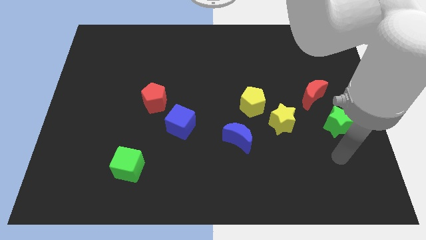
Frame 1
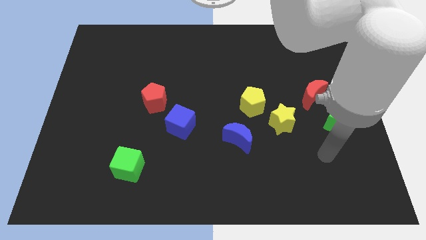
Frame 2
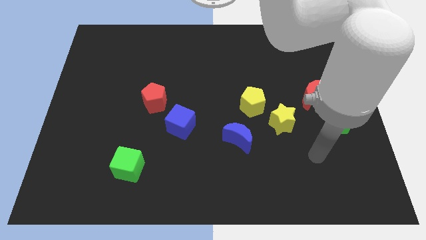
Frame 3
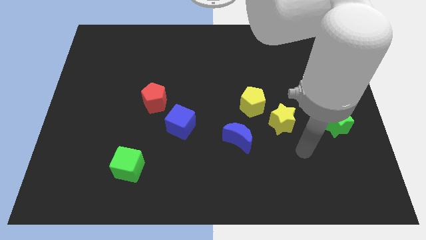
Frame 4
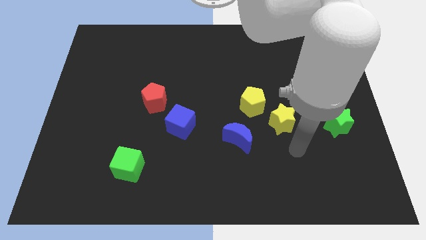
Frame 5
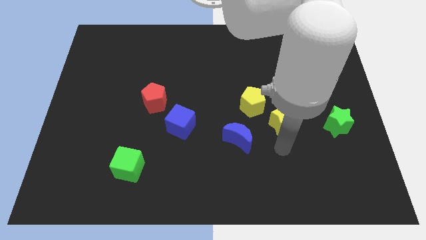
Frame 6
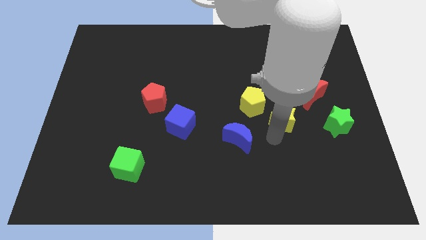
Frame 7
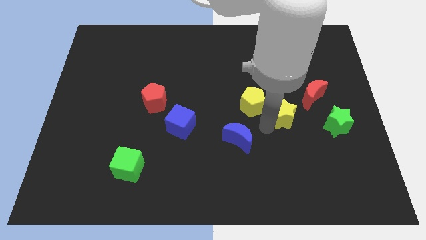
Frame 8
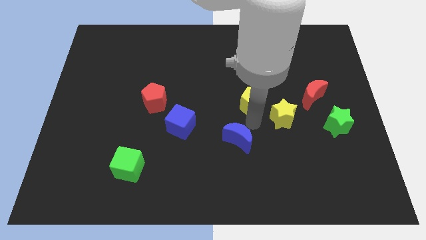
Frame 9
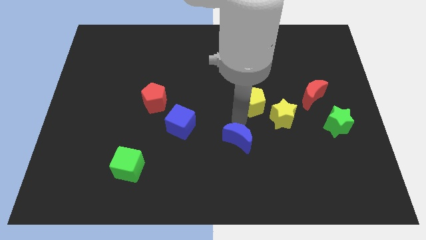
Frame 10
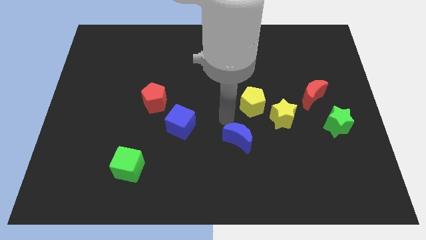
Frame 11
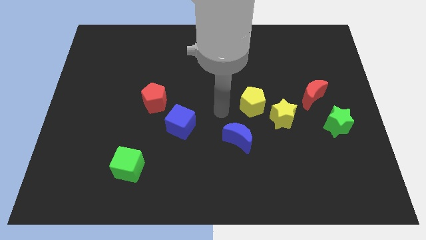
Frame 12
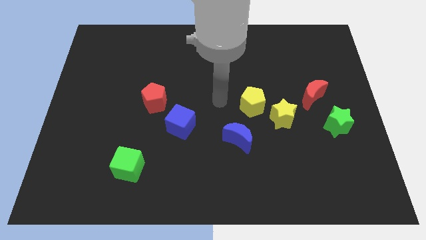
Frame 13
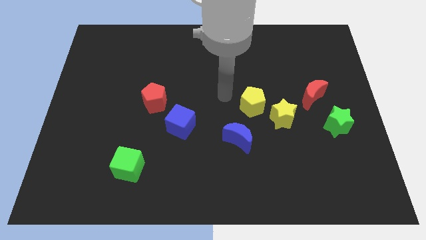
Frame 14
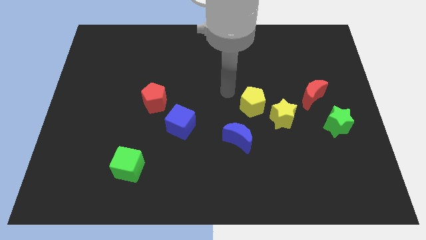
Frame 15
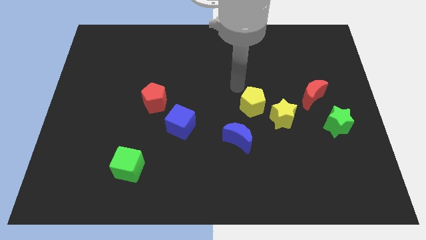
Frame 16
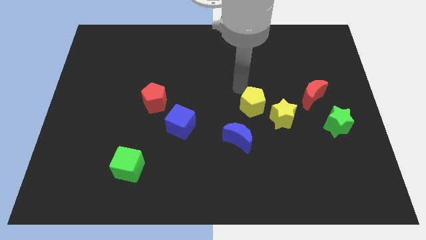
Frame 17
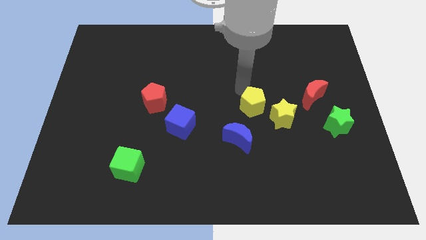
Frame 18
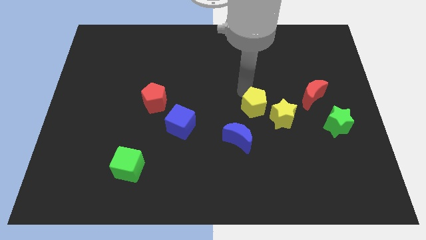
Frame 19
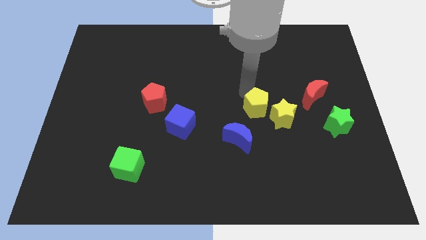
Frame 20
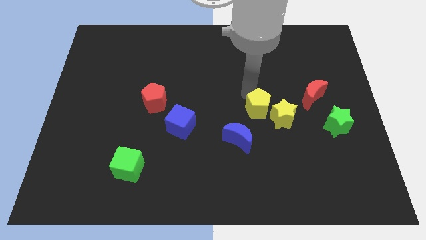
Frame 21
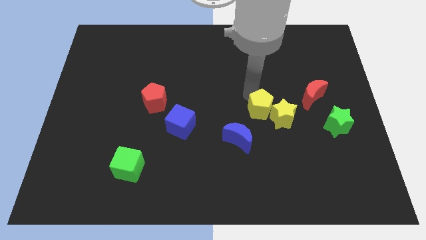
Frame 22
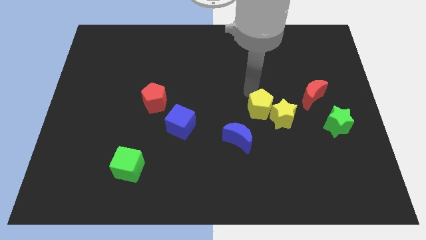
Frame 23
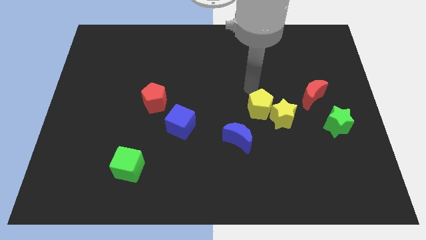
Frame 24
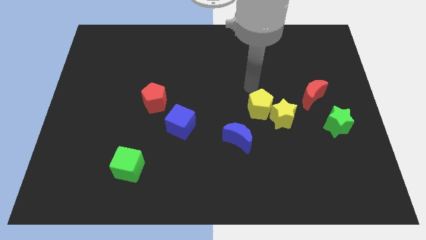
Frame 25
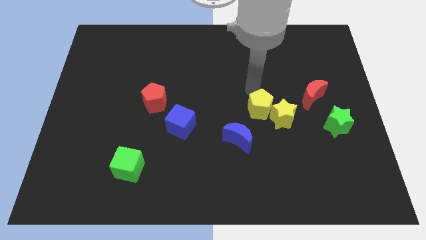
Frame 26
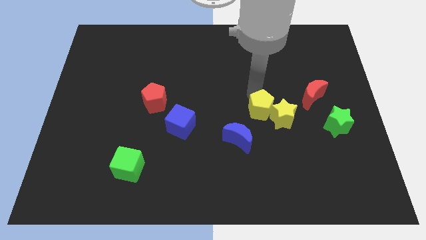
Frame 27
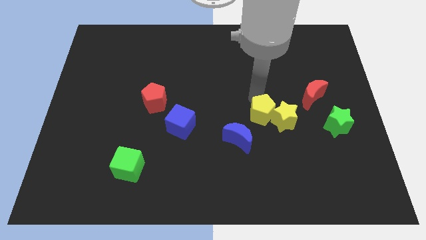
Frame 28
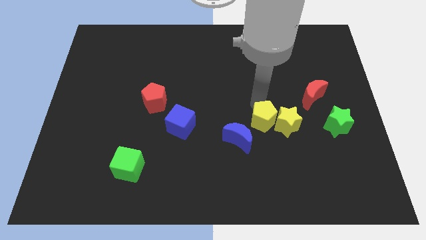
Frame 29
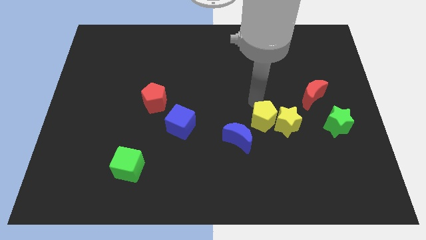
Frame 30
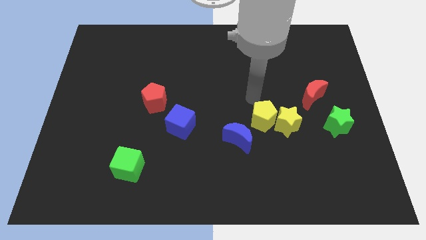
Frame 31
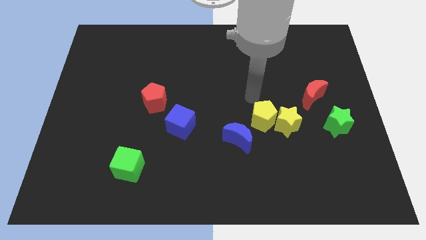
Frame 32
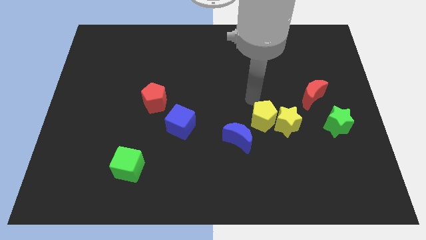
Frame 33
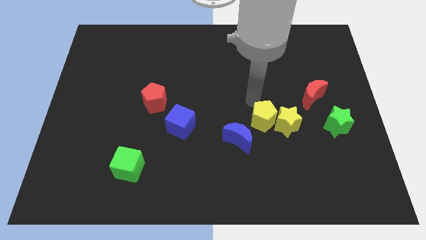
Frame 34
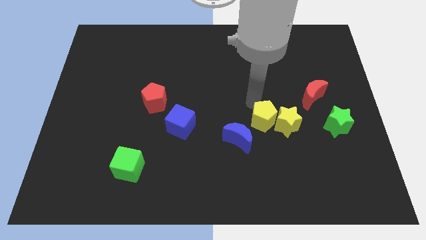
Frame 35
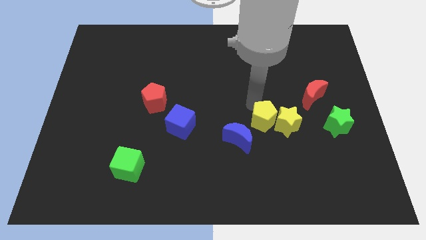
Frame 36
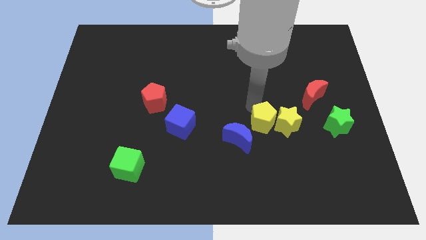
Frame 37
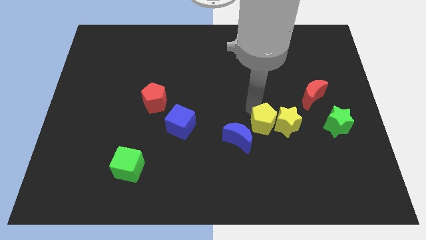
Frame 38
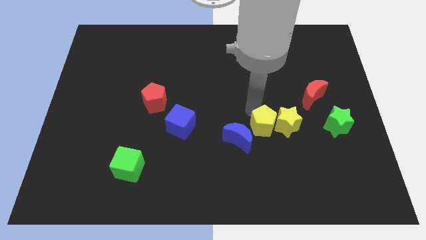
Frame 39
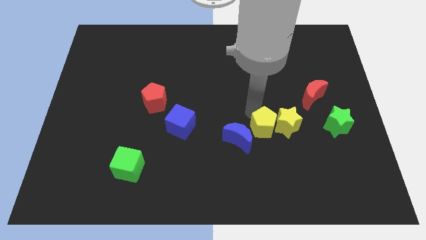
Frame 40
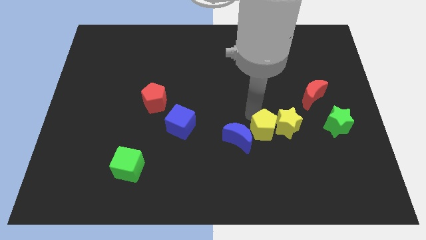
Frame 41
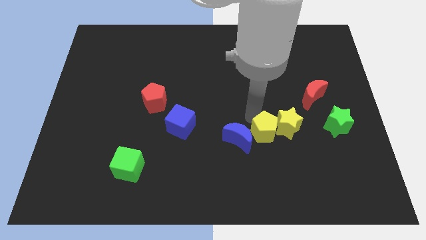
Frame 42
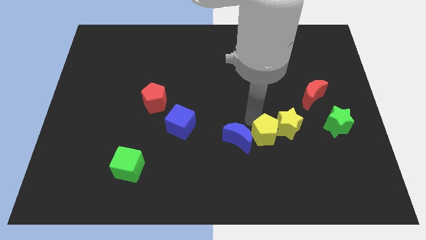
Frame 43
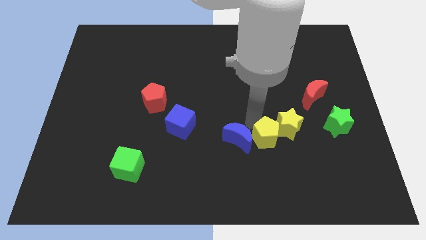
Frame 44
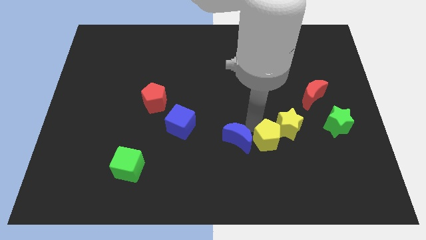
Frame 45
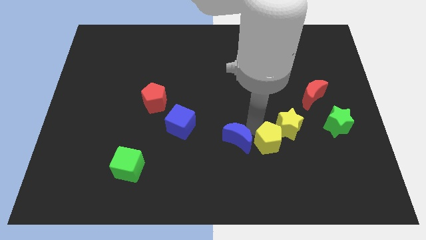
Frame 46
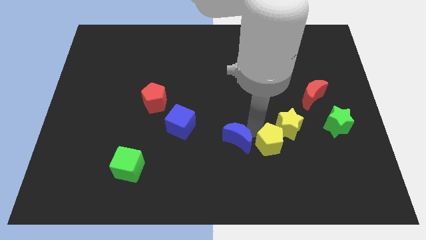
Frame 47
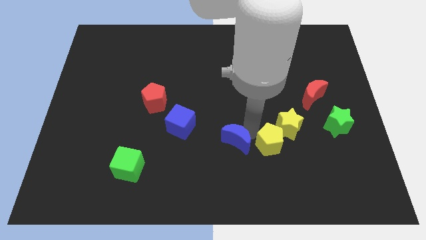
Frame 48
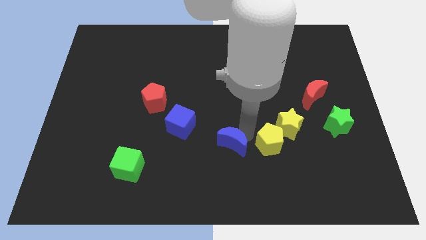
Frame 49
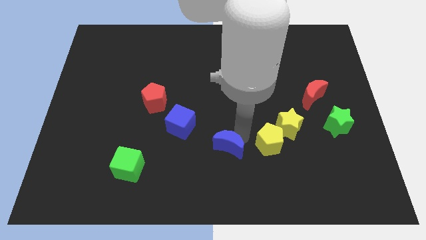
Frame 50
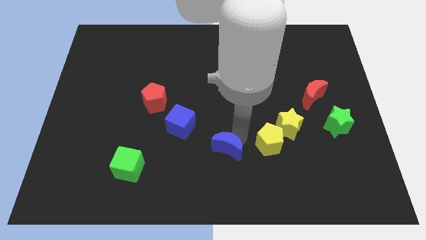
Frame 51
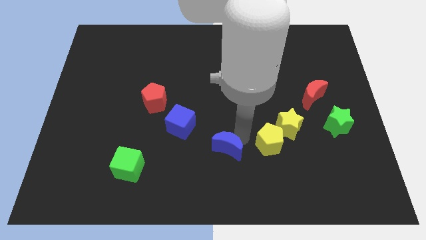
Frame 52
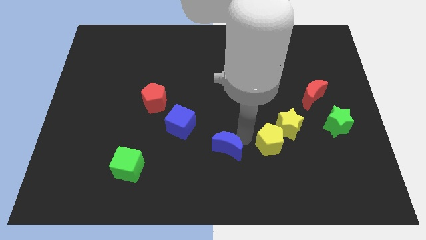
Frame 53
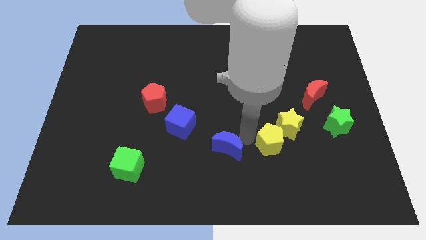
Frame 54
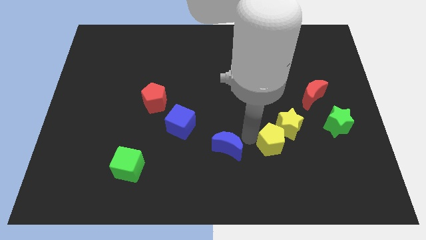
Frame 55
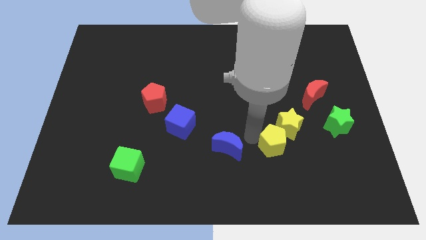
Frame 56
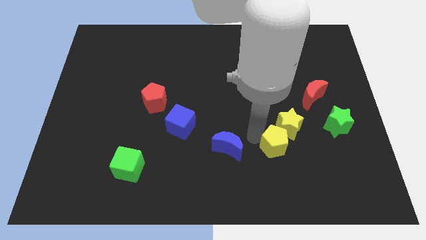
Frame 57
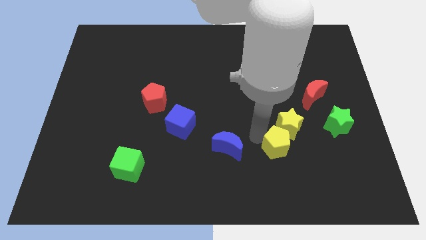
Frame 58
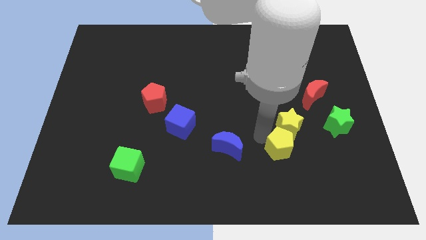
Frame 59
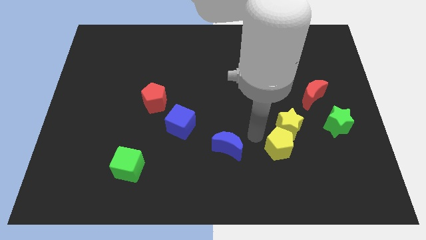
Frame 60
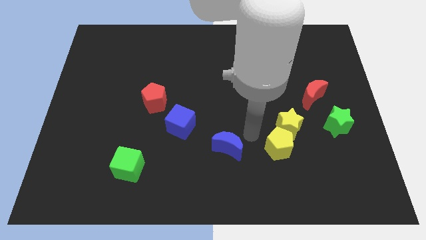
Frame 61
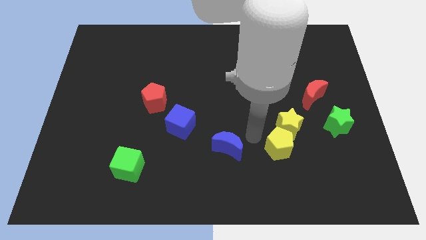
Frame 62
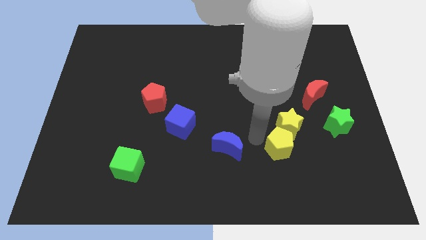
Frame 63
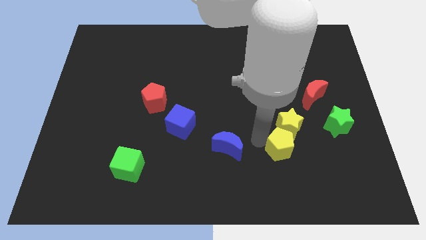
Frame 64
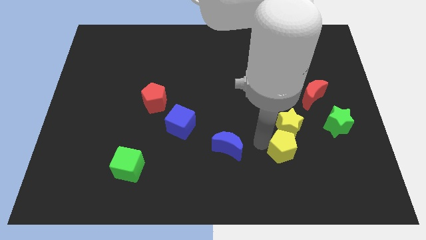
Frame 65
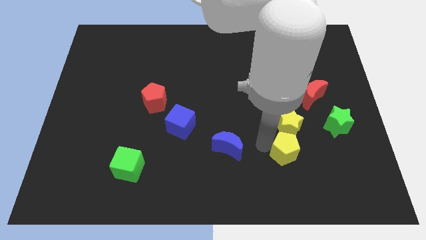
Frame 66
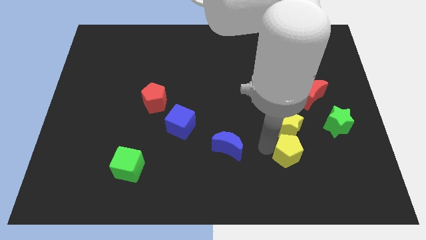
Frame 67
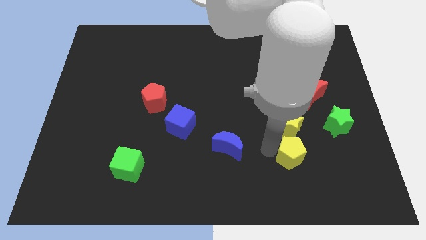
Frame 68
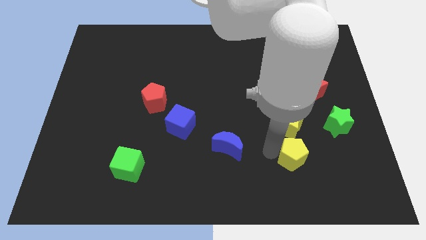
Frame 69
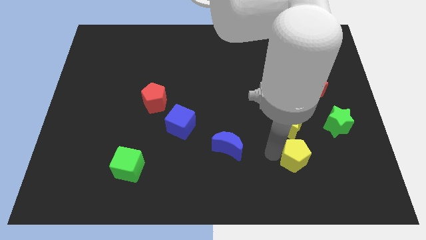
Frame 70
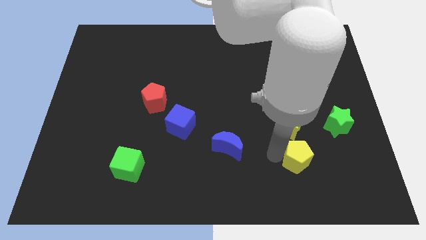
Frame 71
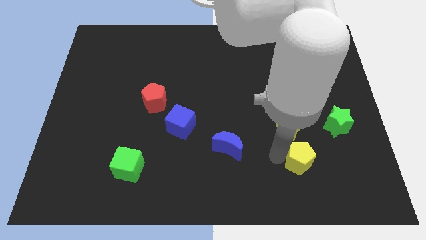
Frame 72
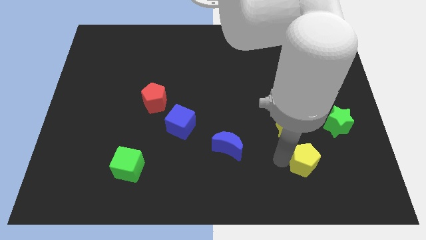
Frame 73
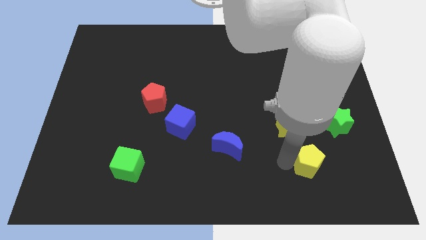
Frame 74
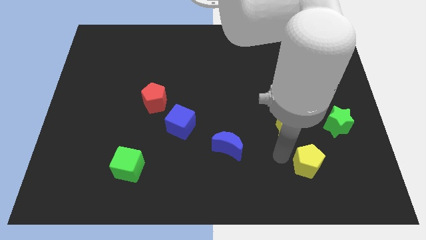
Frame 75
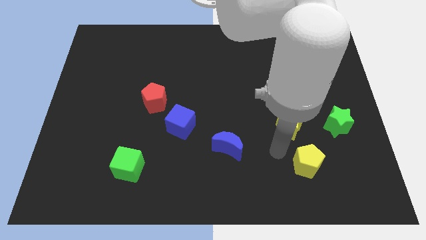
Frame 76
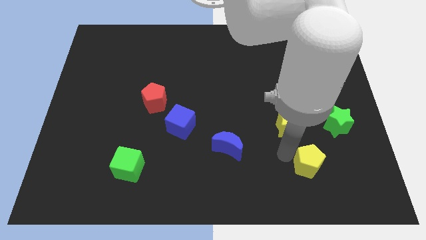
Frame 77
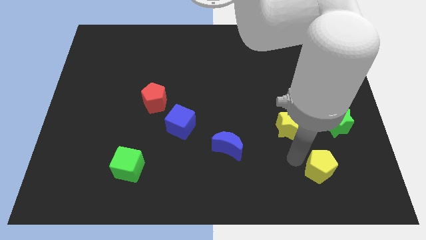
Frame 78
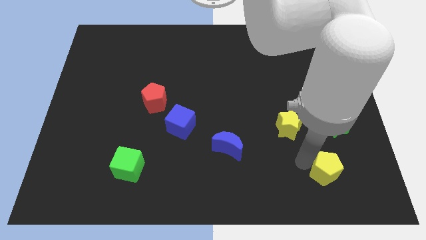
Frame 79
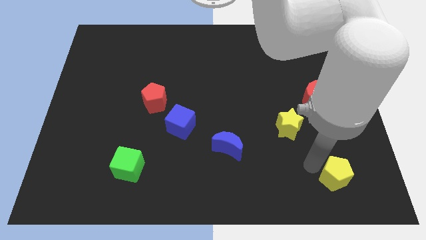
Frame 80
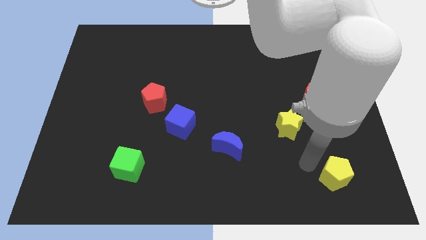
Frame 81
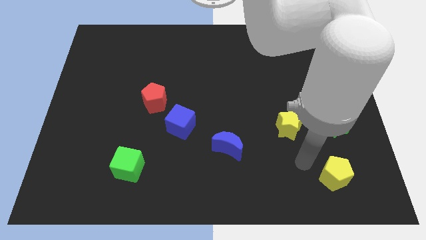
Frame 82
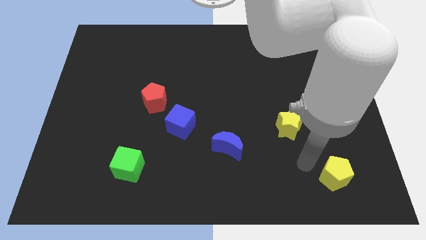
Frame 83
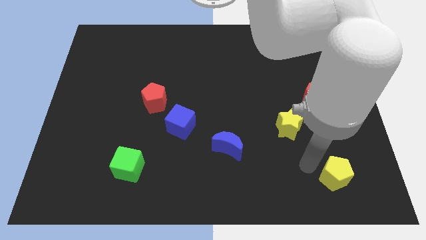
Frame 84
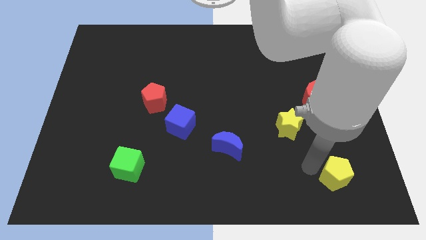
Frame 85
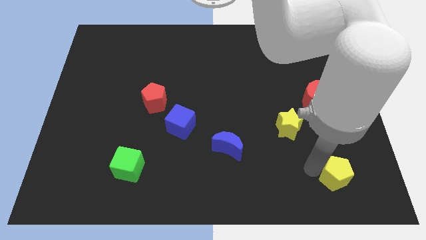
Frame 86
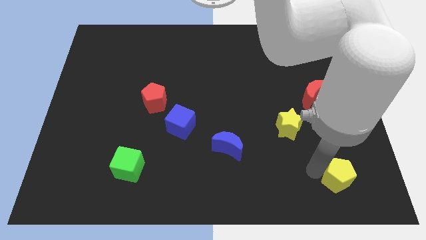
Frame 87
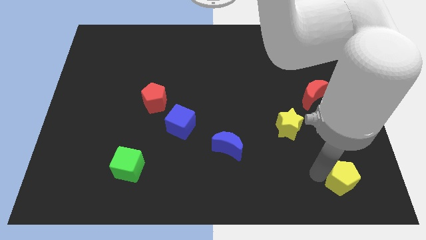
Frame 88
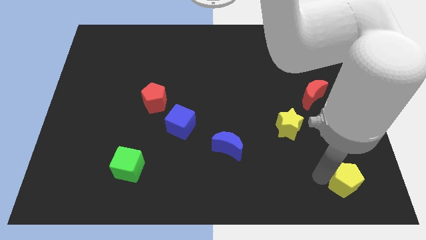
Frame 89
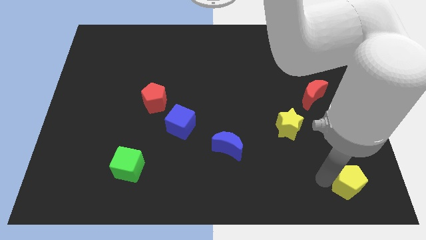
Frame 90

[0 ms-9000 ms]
slide the yellow pentagon to the bottom right of the board
